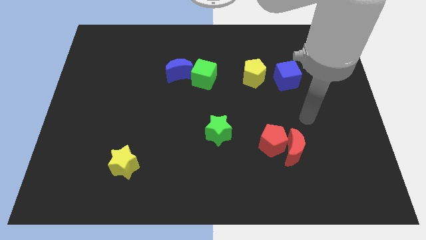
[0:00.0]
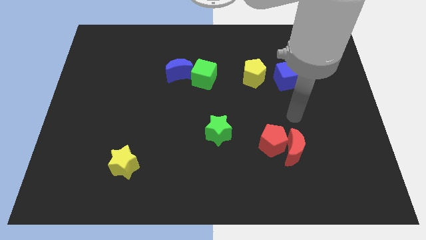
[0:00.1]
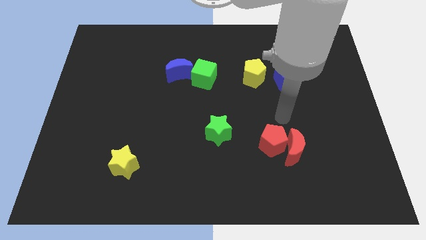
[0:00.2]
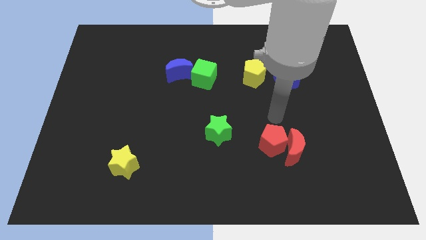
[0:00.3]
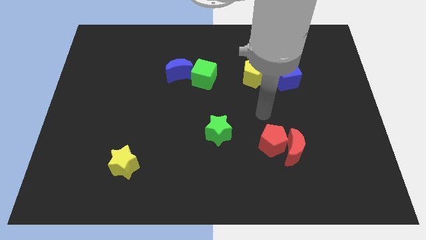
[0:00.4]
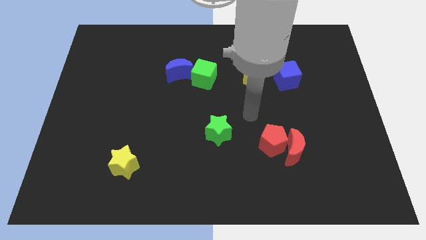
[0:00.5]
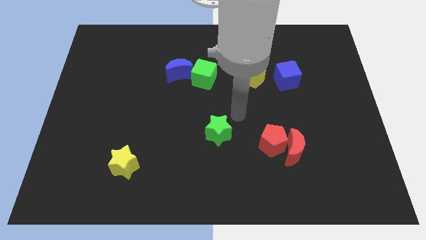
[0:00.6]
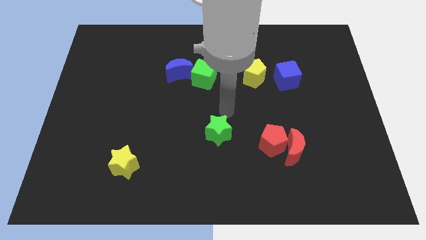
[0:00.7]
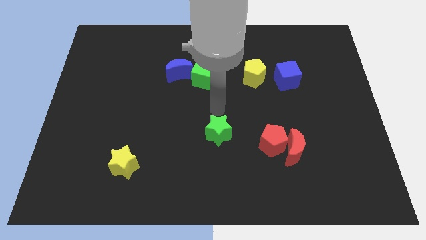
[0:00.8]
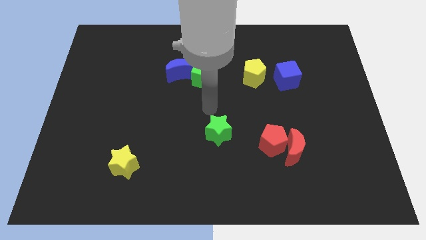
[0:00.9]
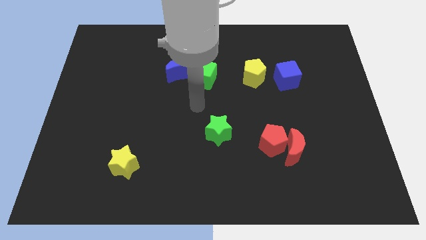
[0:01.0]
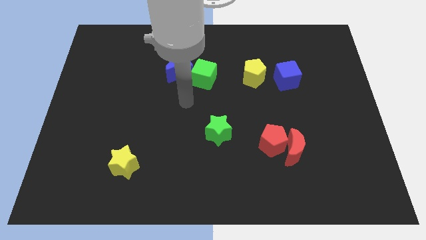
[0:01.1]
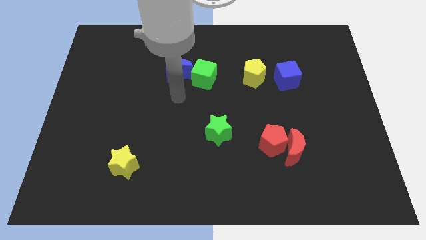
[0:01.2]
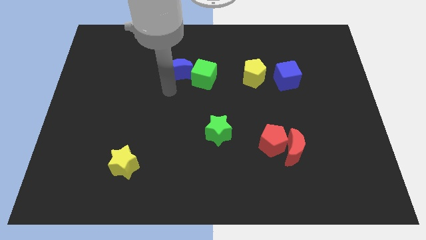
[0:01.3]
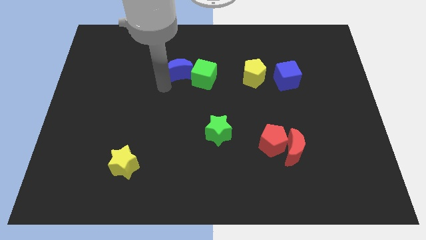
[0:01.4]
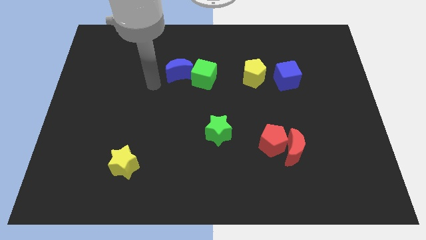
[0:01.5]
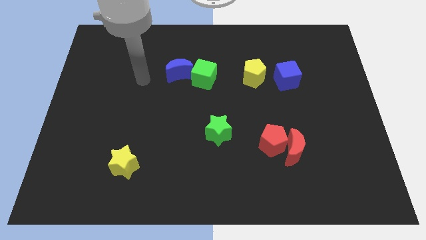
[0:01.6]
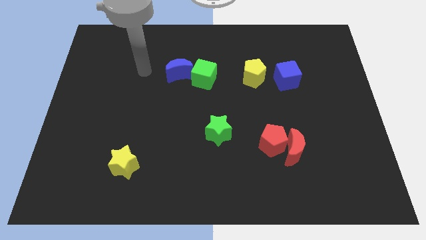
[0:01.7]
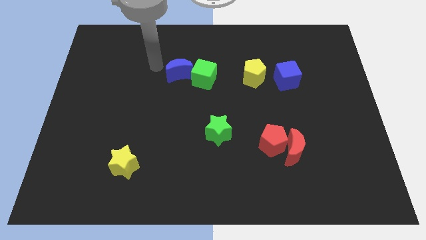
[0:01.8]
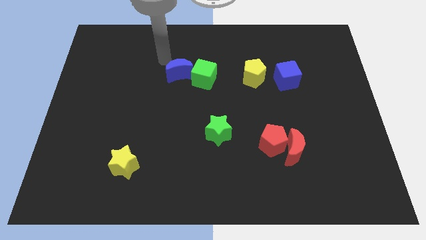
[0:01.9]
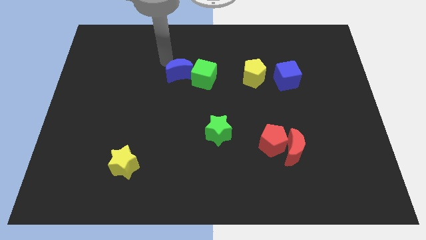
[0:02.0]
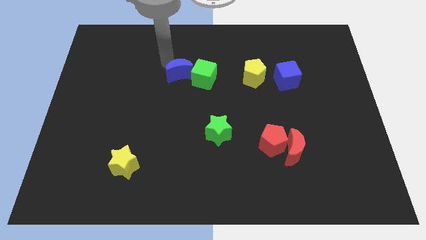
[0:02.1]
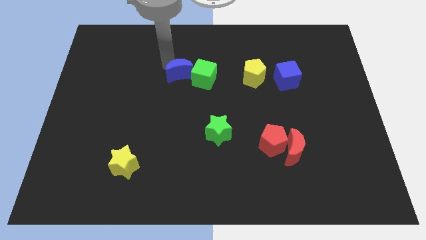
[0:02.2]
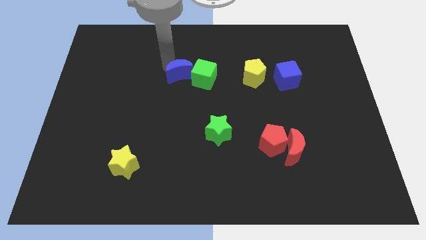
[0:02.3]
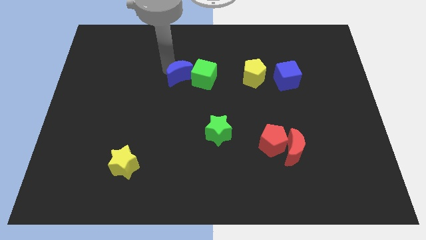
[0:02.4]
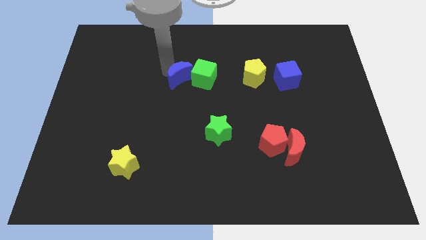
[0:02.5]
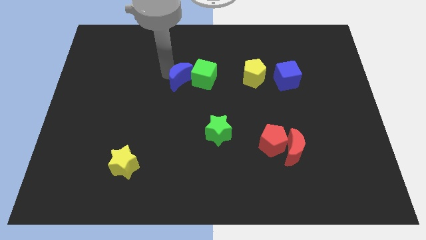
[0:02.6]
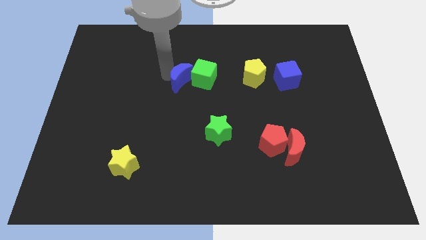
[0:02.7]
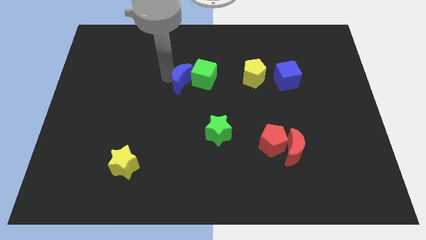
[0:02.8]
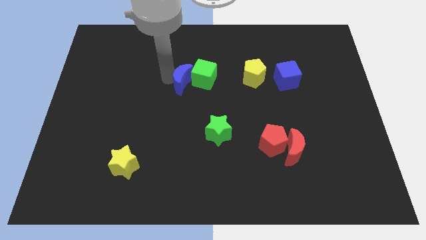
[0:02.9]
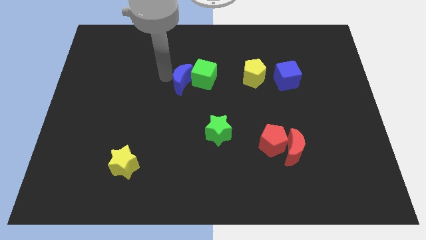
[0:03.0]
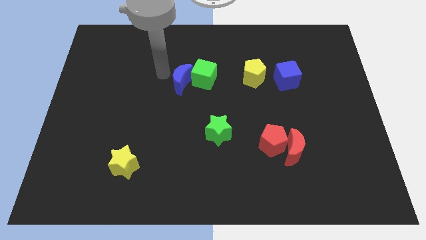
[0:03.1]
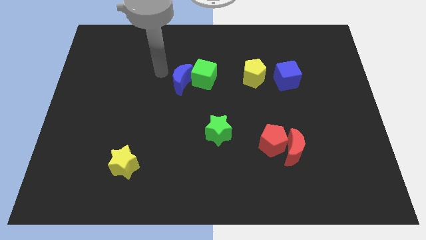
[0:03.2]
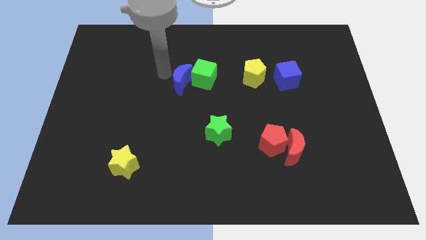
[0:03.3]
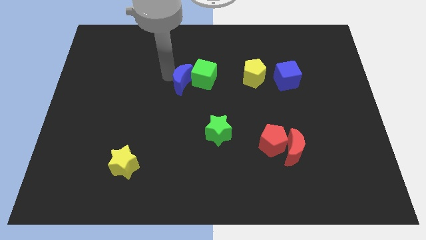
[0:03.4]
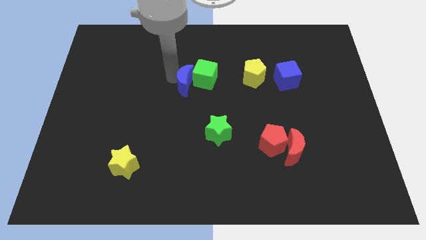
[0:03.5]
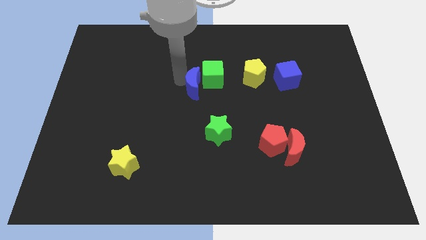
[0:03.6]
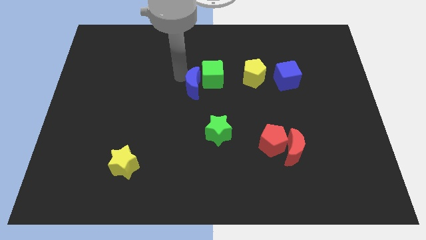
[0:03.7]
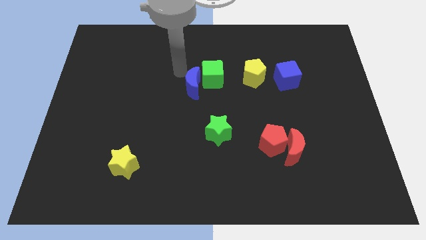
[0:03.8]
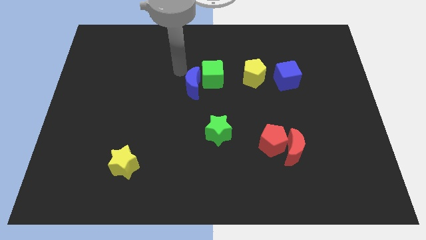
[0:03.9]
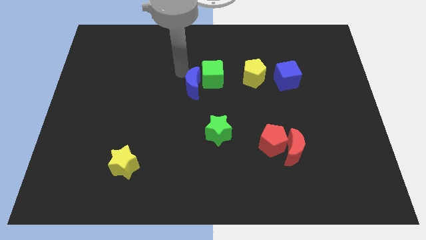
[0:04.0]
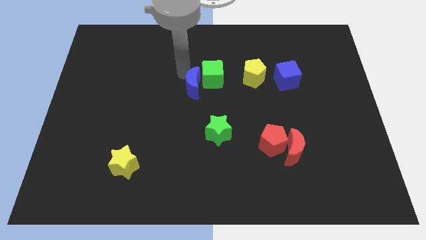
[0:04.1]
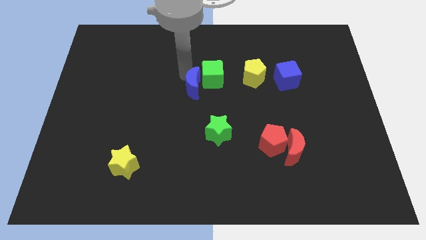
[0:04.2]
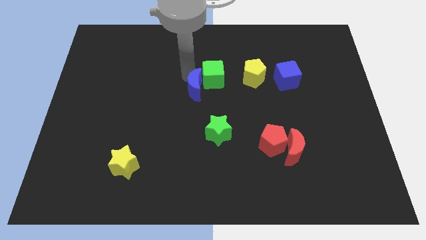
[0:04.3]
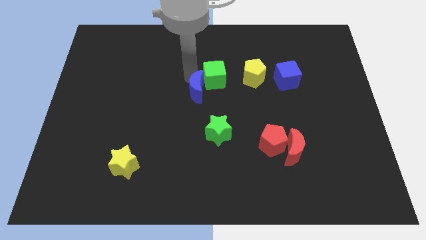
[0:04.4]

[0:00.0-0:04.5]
move the blue moon a little diagonally downwards and to the right

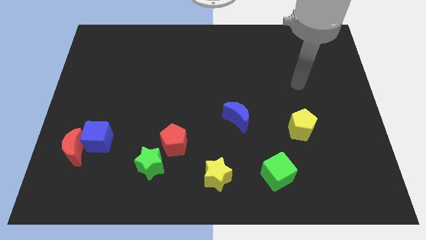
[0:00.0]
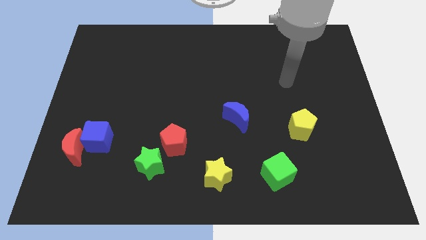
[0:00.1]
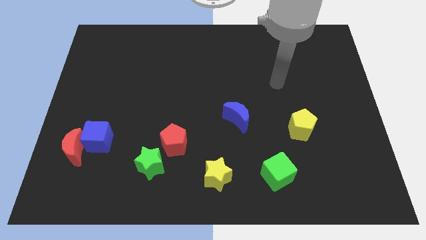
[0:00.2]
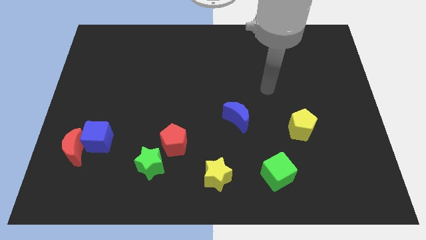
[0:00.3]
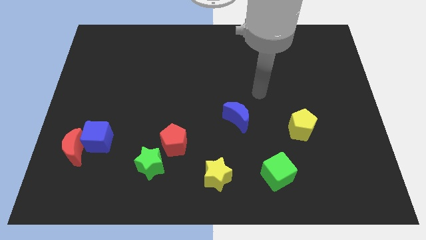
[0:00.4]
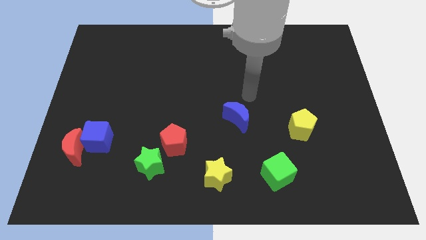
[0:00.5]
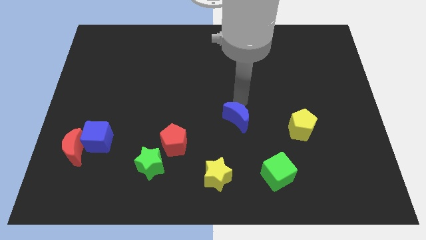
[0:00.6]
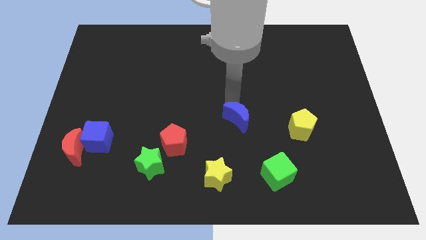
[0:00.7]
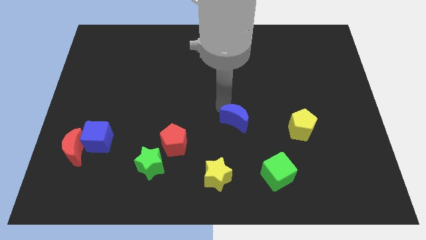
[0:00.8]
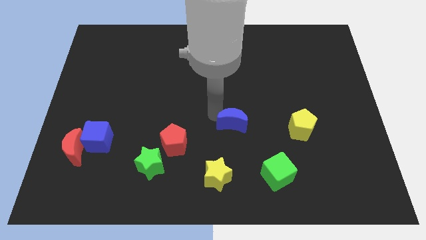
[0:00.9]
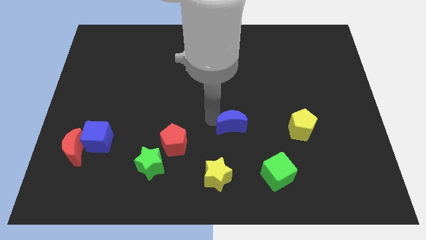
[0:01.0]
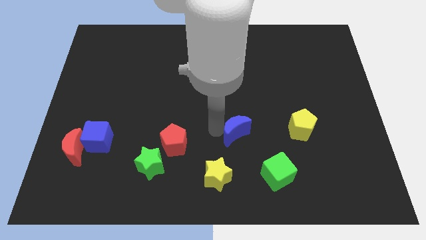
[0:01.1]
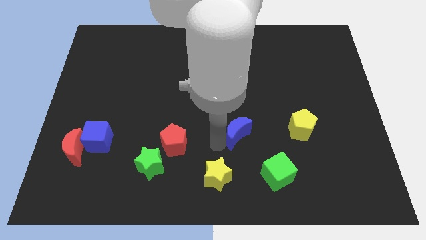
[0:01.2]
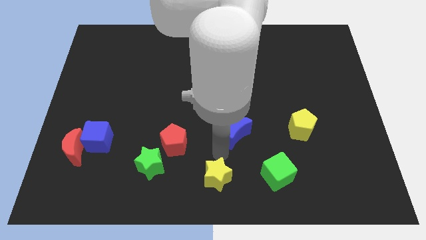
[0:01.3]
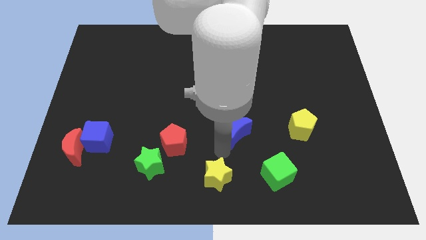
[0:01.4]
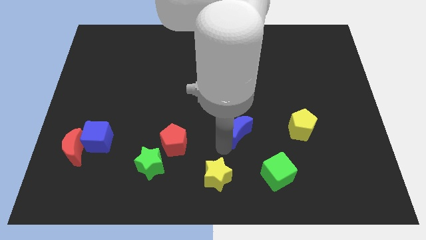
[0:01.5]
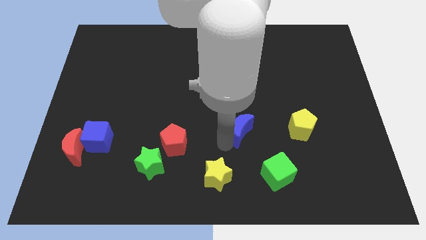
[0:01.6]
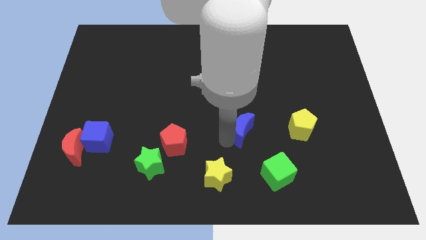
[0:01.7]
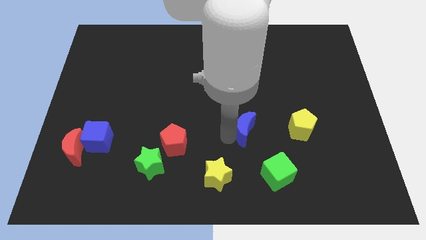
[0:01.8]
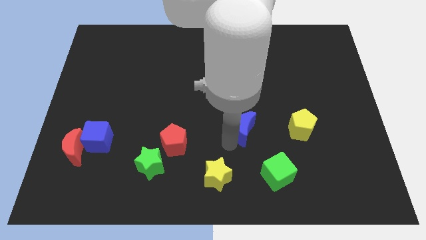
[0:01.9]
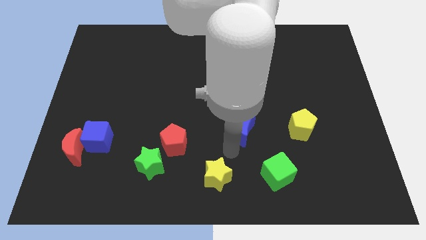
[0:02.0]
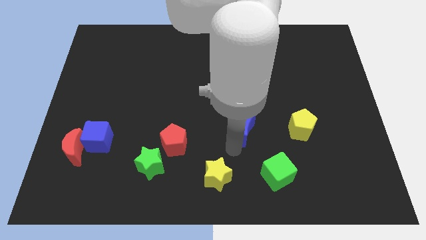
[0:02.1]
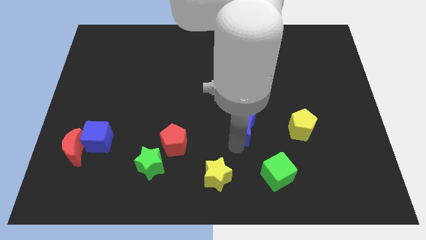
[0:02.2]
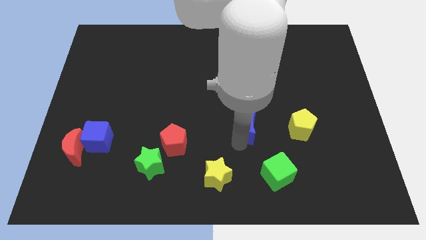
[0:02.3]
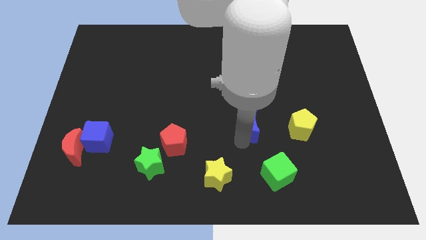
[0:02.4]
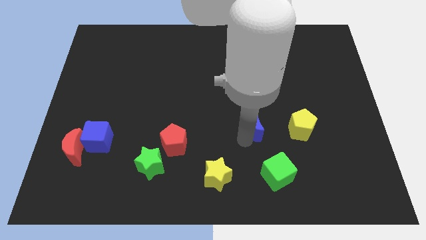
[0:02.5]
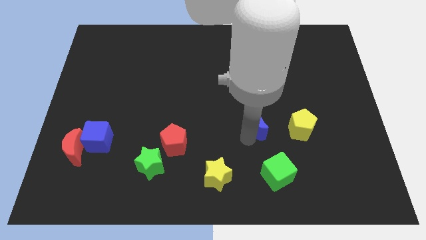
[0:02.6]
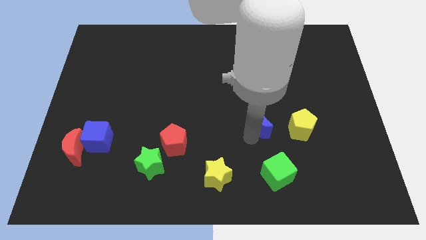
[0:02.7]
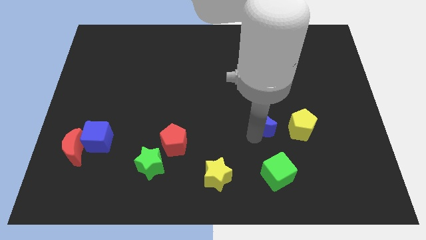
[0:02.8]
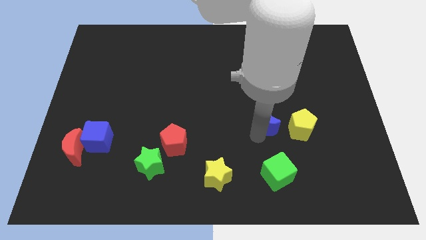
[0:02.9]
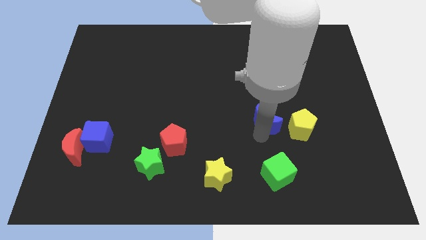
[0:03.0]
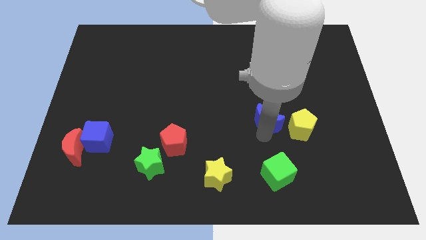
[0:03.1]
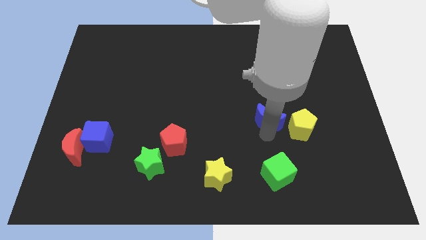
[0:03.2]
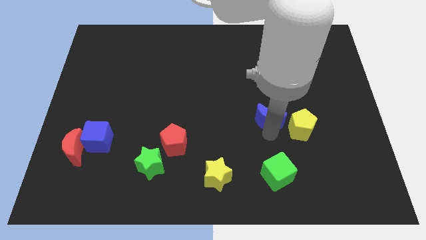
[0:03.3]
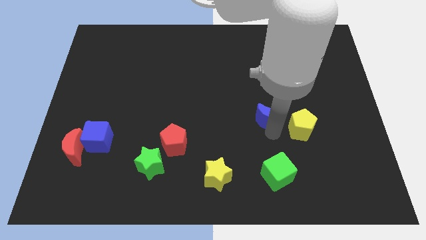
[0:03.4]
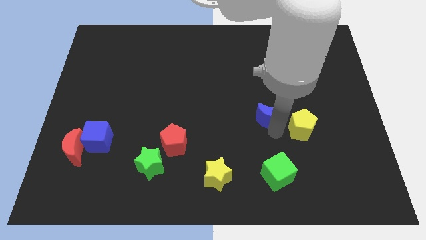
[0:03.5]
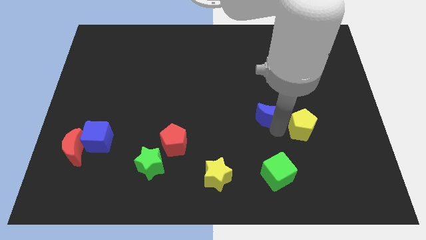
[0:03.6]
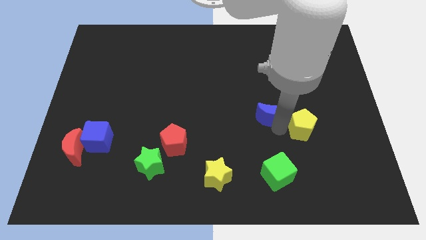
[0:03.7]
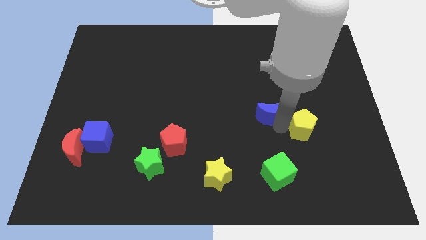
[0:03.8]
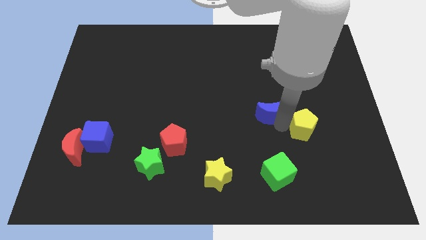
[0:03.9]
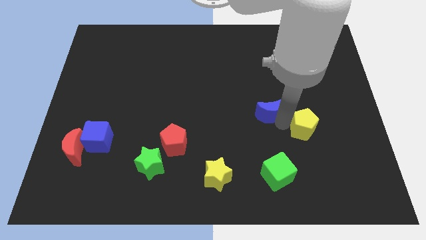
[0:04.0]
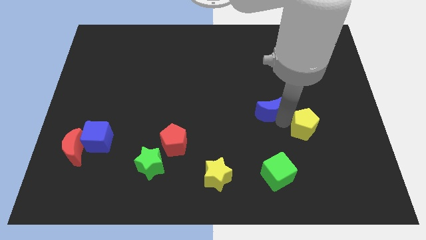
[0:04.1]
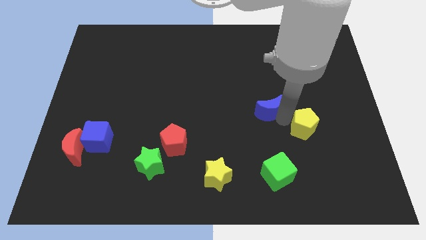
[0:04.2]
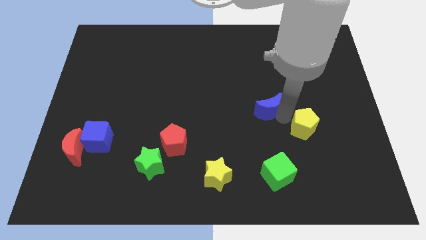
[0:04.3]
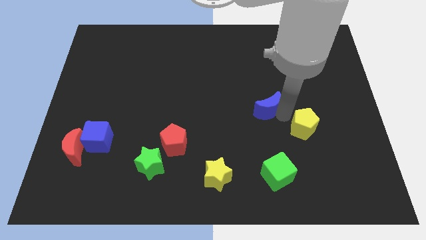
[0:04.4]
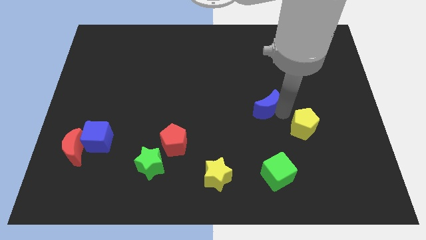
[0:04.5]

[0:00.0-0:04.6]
slide the blue moon somewhat up and then to the right
